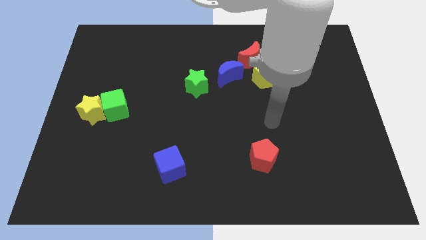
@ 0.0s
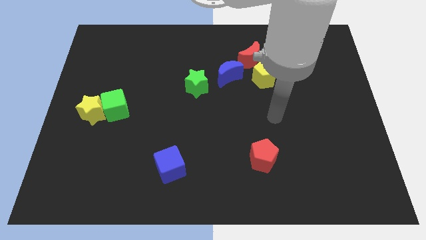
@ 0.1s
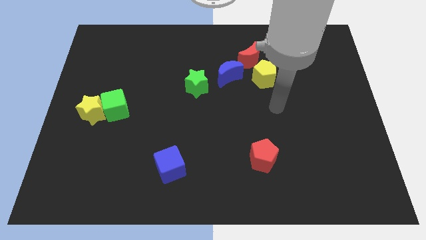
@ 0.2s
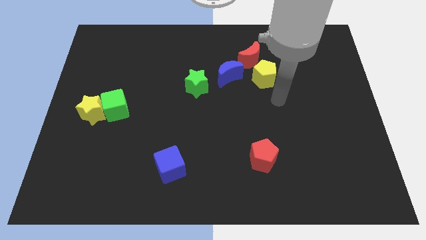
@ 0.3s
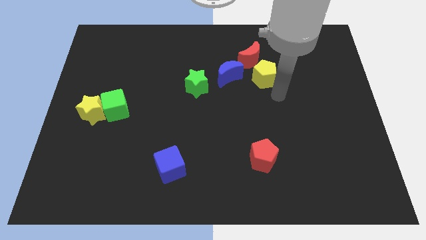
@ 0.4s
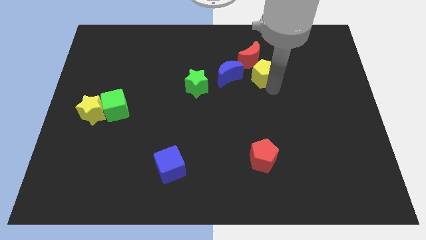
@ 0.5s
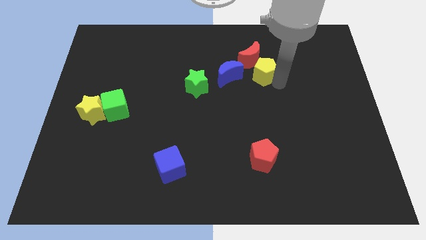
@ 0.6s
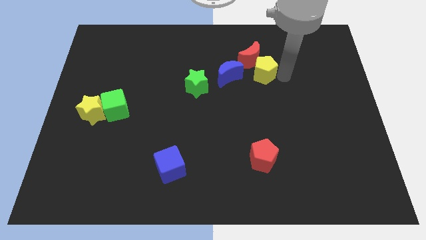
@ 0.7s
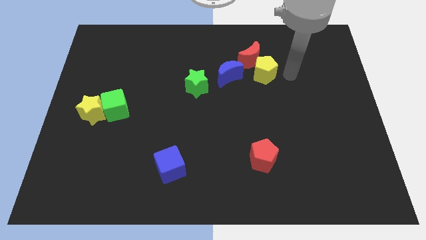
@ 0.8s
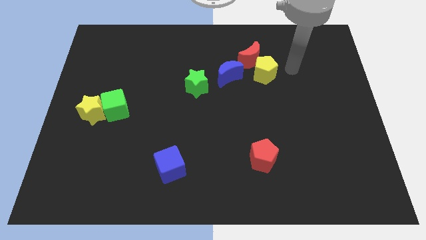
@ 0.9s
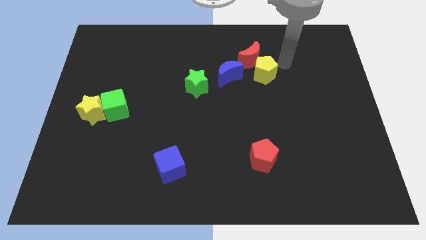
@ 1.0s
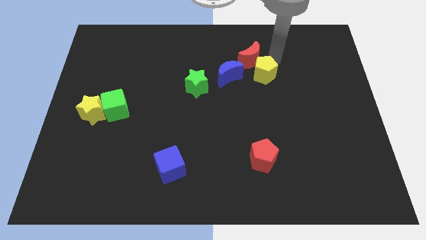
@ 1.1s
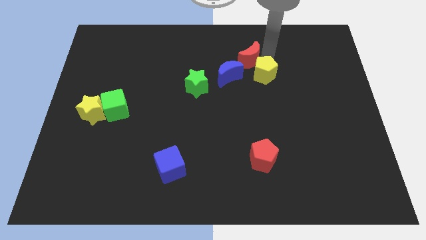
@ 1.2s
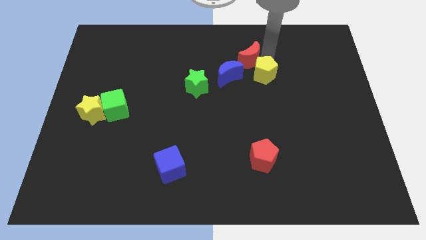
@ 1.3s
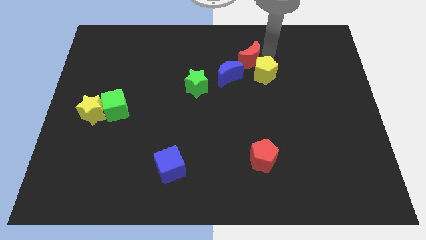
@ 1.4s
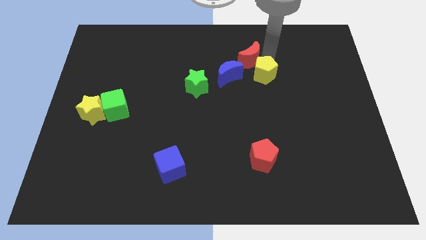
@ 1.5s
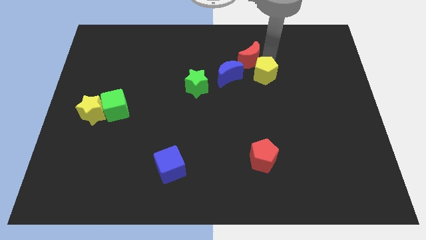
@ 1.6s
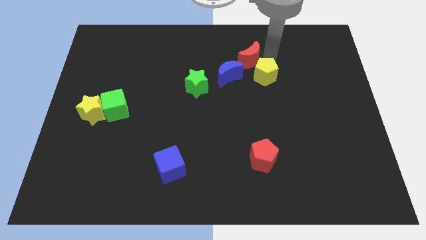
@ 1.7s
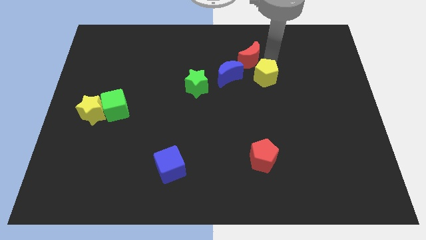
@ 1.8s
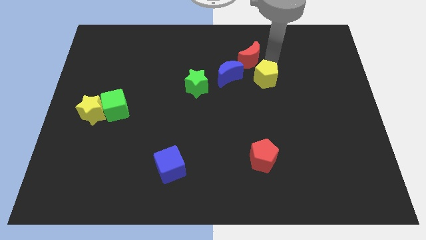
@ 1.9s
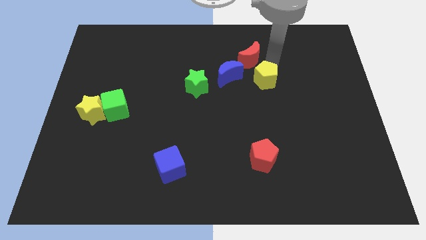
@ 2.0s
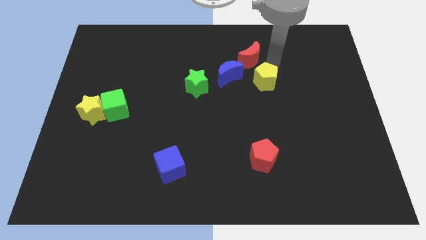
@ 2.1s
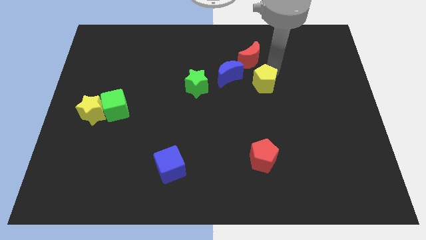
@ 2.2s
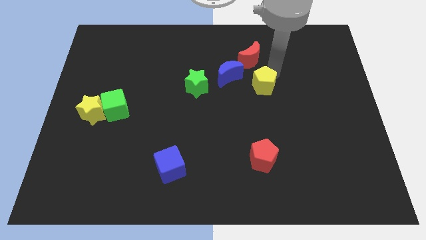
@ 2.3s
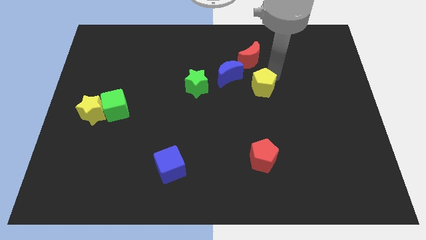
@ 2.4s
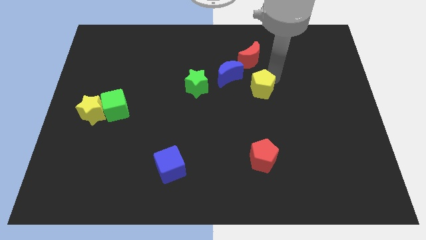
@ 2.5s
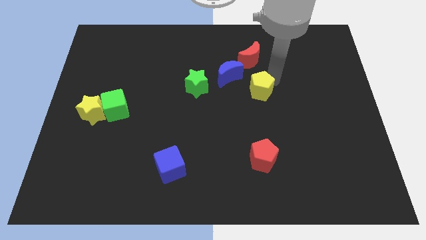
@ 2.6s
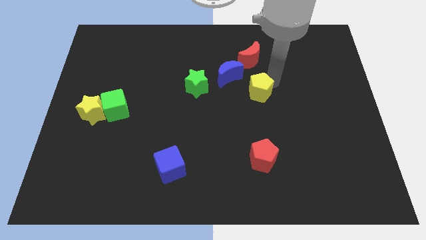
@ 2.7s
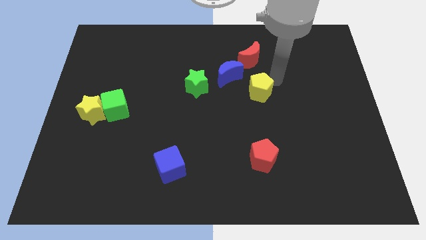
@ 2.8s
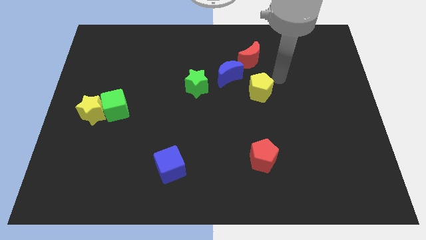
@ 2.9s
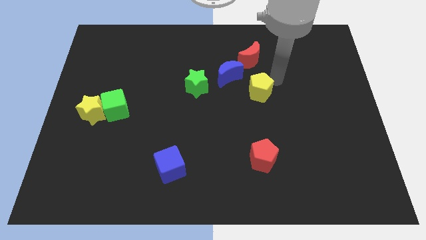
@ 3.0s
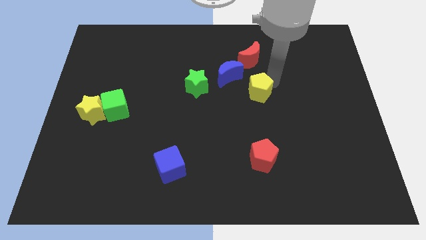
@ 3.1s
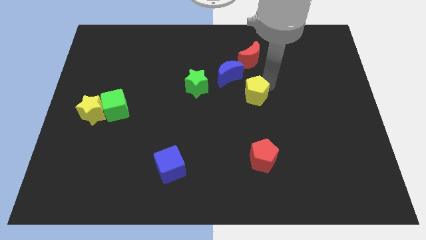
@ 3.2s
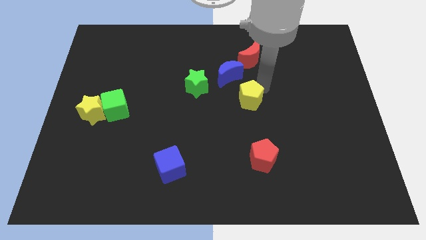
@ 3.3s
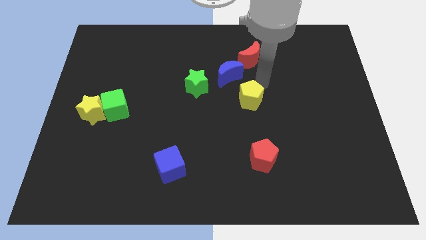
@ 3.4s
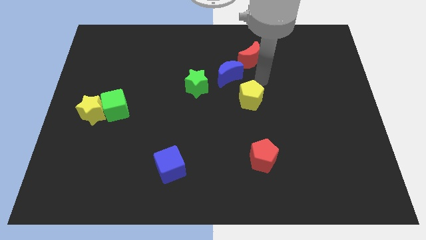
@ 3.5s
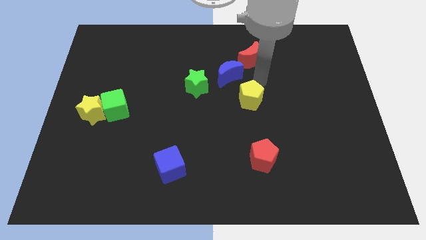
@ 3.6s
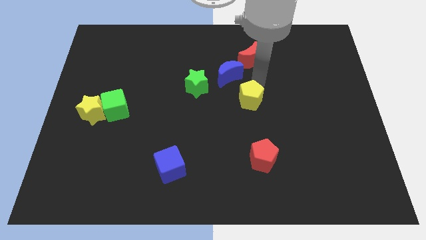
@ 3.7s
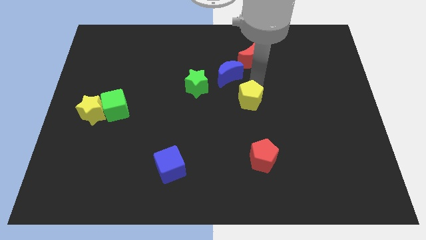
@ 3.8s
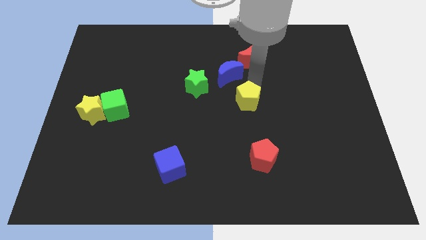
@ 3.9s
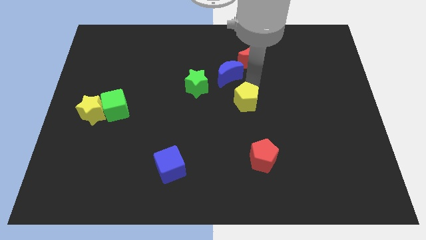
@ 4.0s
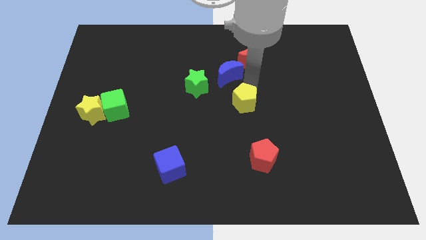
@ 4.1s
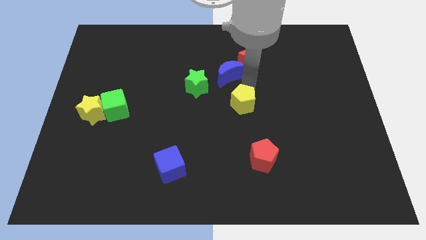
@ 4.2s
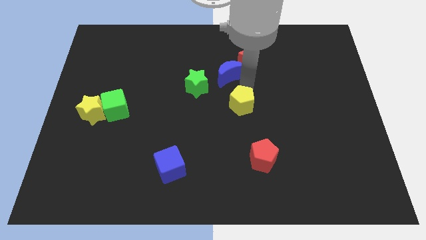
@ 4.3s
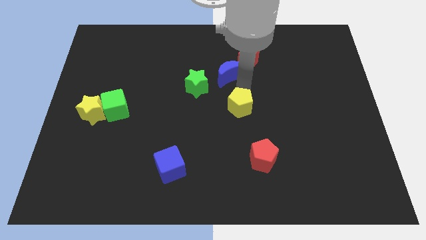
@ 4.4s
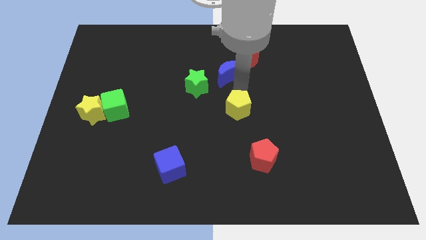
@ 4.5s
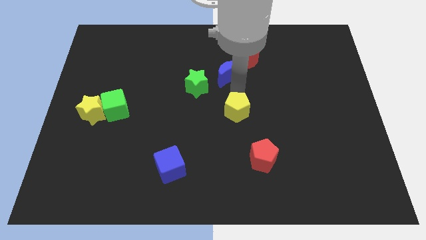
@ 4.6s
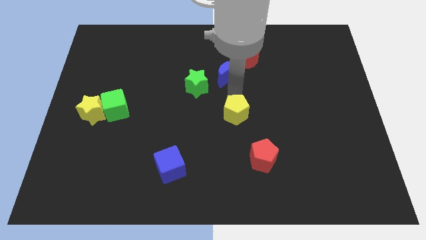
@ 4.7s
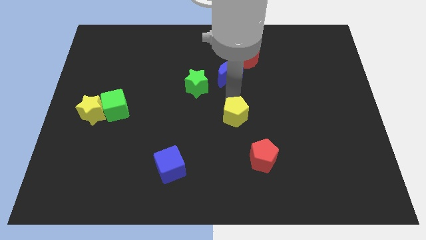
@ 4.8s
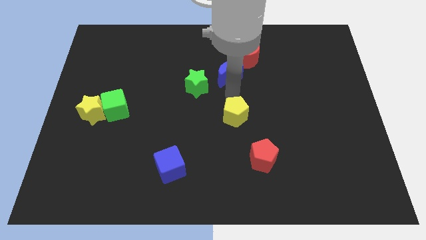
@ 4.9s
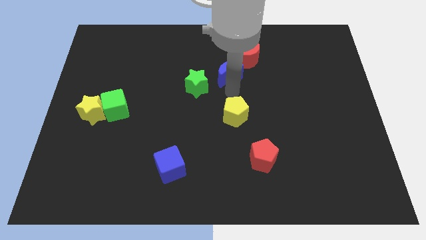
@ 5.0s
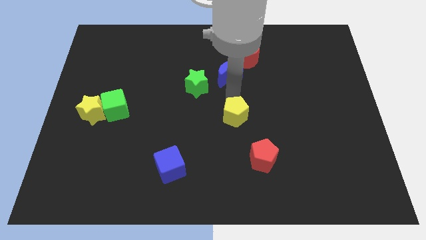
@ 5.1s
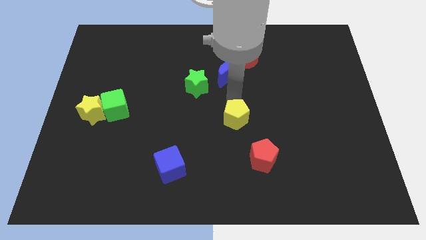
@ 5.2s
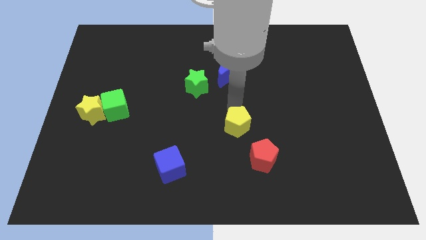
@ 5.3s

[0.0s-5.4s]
push the yellow pentagon to the top left of the red pentagon

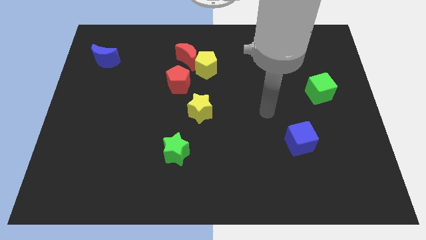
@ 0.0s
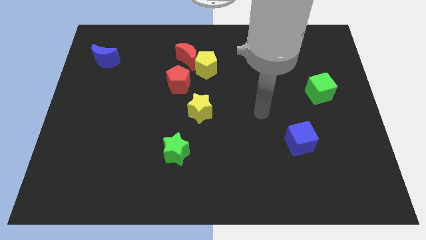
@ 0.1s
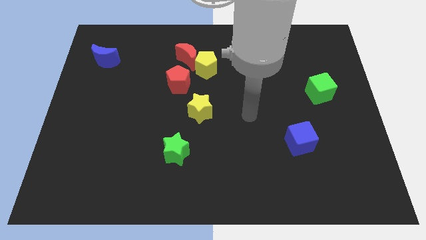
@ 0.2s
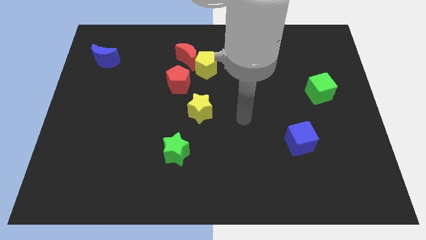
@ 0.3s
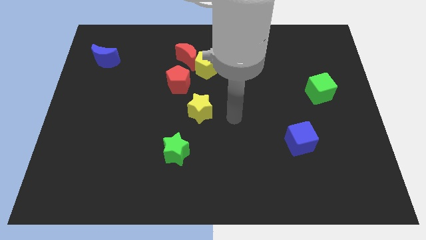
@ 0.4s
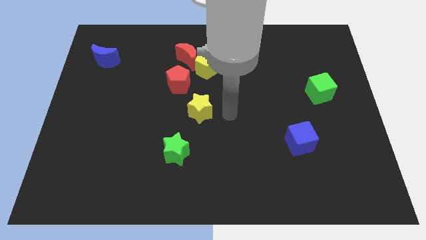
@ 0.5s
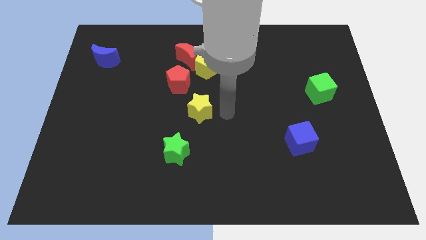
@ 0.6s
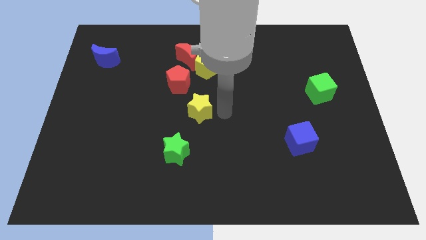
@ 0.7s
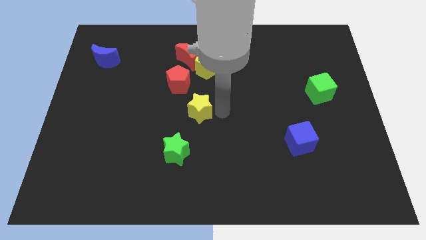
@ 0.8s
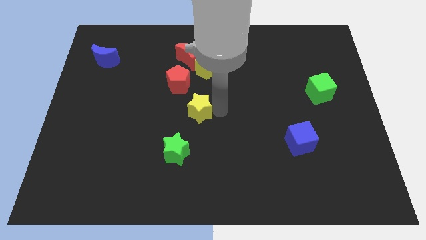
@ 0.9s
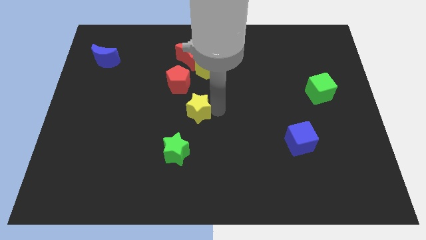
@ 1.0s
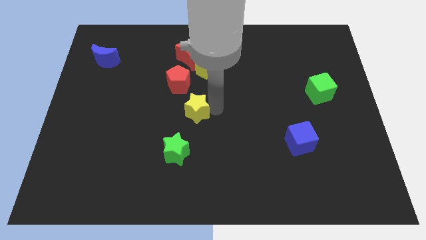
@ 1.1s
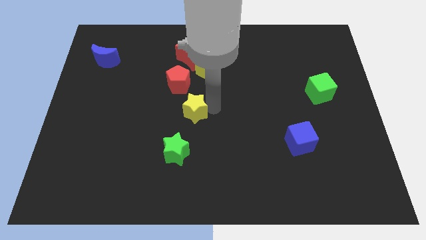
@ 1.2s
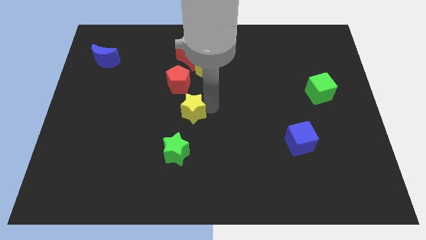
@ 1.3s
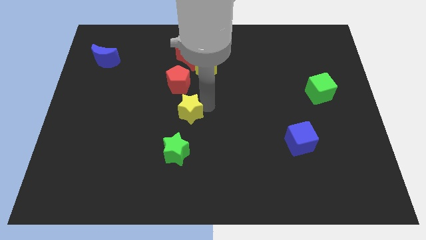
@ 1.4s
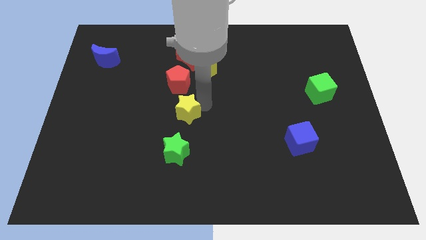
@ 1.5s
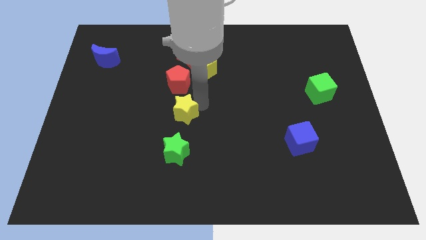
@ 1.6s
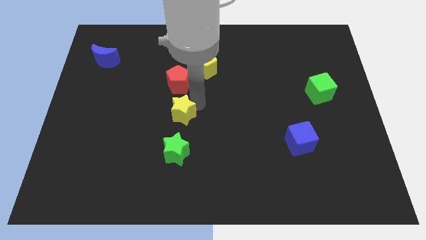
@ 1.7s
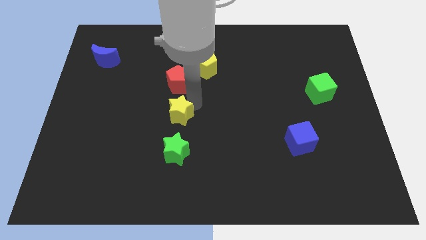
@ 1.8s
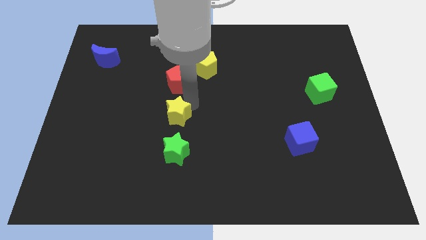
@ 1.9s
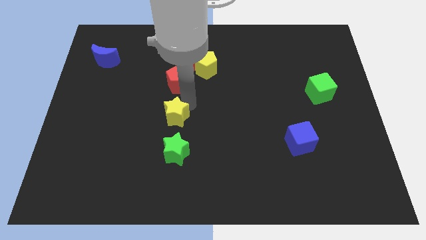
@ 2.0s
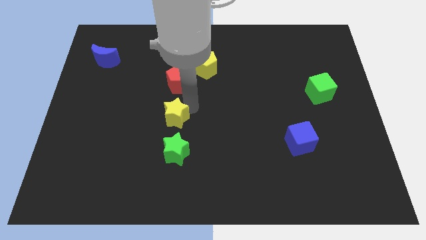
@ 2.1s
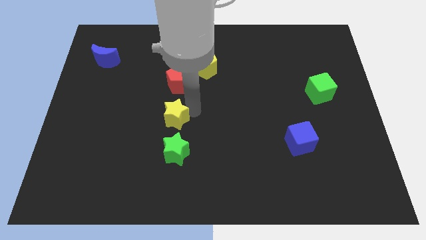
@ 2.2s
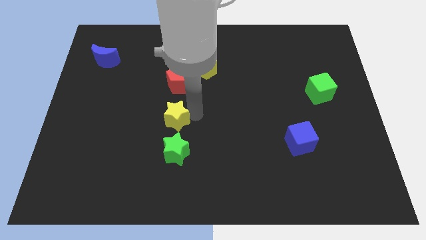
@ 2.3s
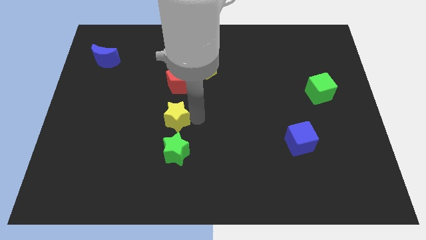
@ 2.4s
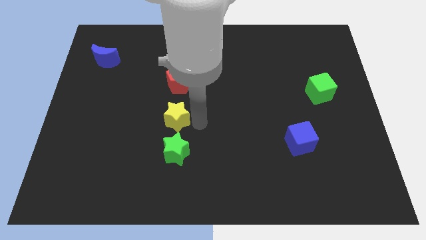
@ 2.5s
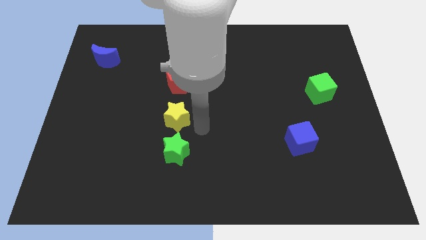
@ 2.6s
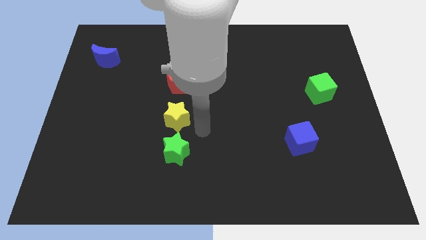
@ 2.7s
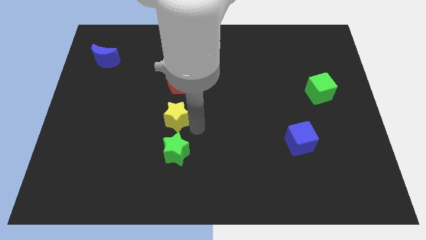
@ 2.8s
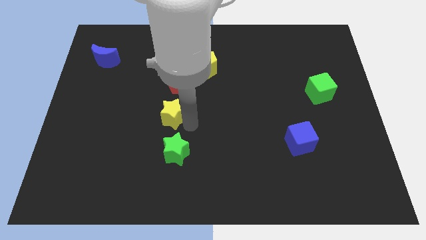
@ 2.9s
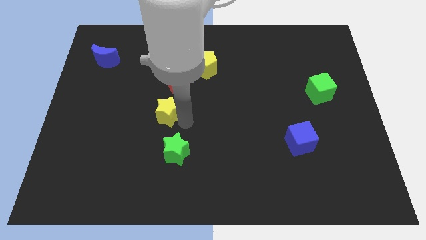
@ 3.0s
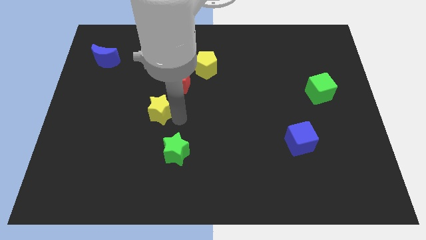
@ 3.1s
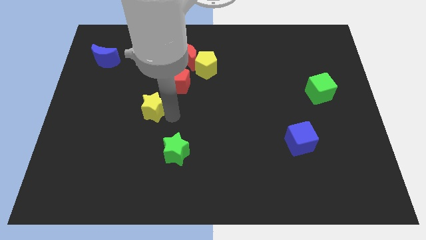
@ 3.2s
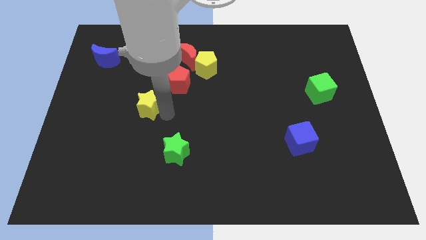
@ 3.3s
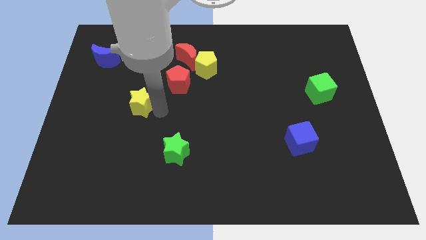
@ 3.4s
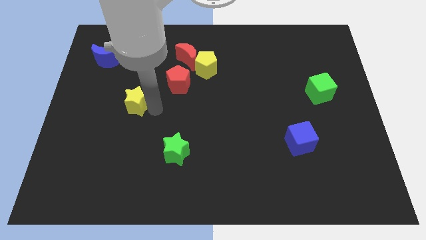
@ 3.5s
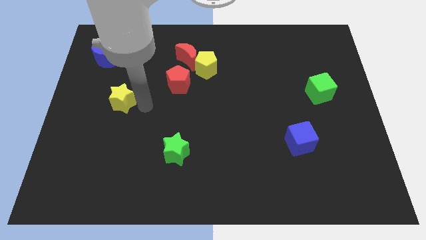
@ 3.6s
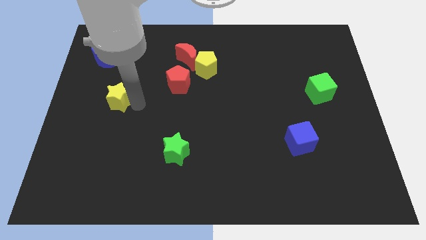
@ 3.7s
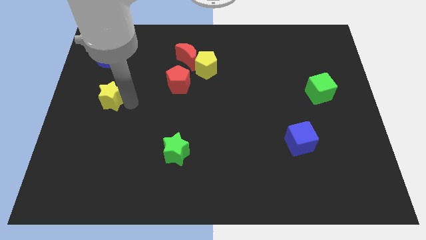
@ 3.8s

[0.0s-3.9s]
slide the yellow star to the bottom side of the blue moon
